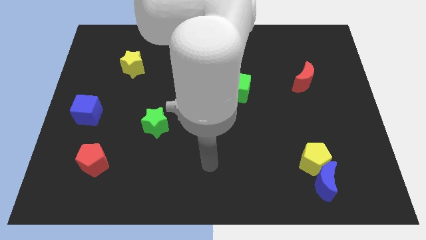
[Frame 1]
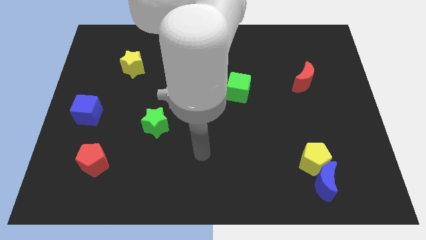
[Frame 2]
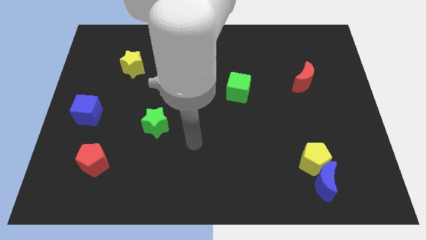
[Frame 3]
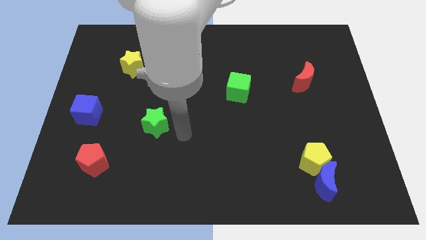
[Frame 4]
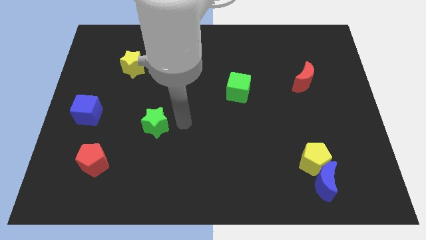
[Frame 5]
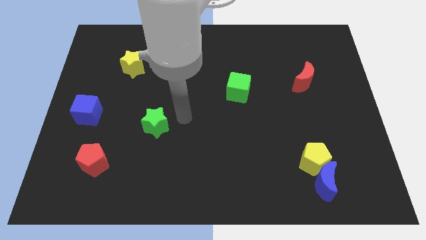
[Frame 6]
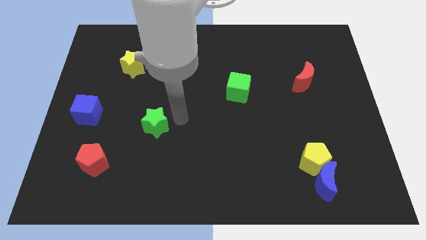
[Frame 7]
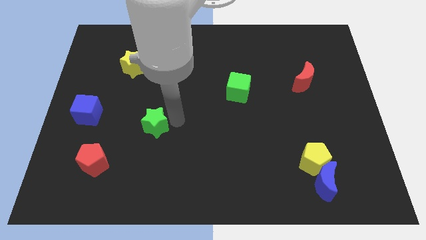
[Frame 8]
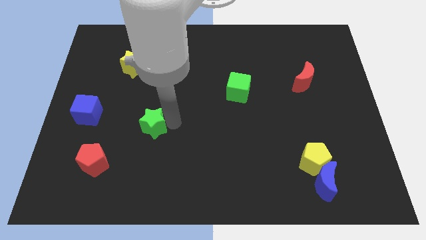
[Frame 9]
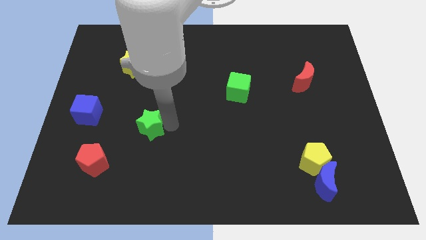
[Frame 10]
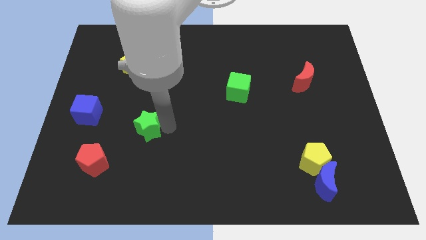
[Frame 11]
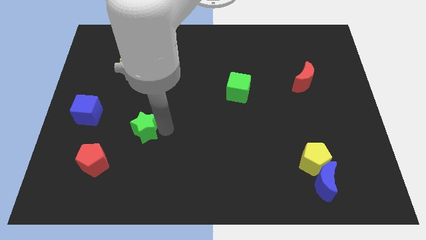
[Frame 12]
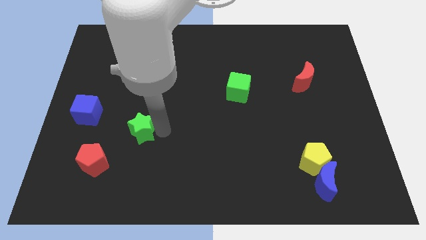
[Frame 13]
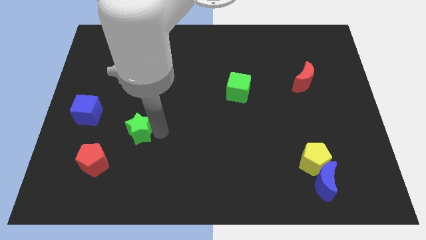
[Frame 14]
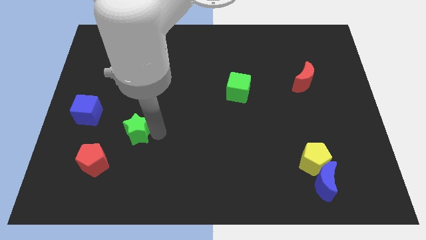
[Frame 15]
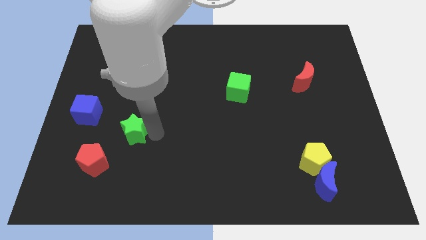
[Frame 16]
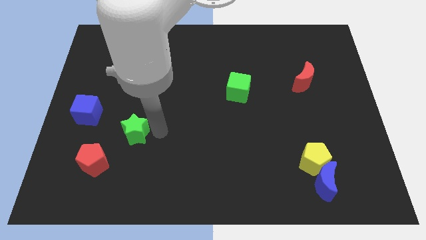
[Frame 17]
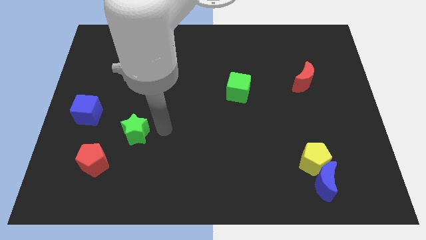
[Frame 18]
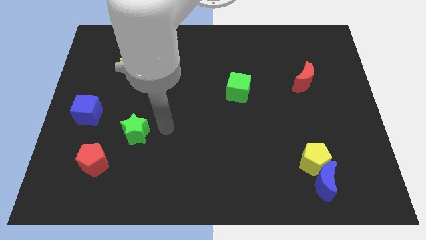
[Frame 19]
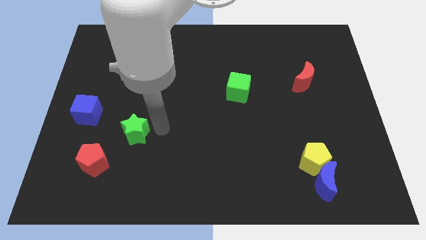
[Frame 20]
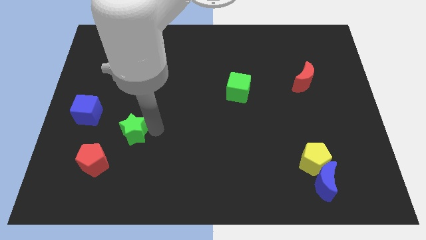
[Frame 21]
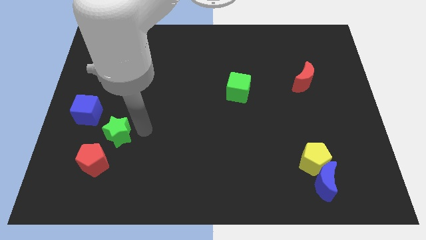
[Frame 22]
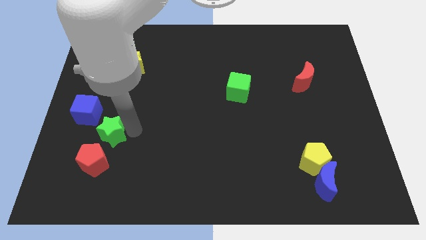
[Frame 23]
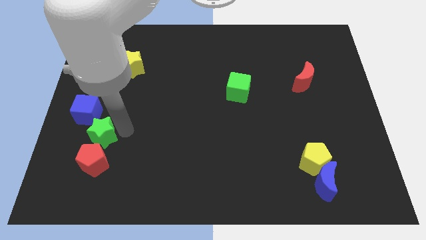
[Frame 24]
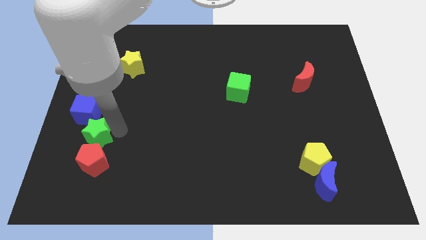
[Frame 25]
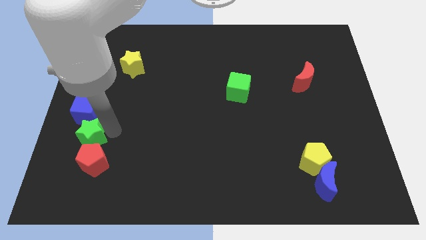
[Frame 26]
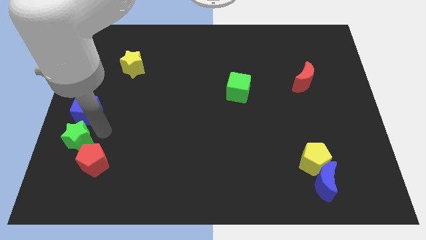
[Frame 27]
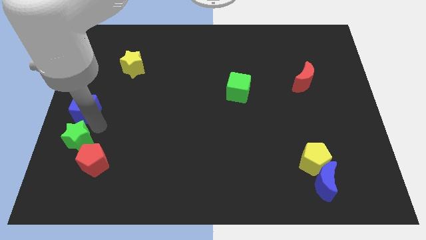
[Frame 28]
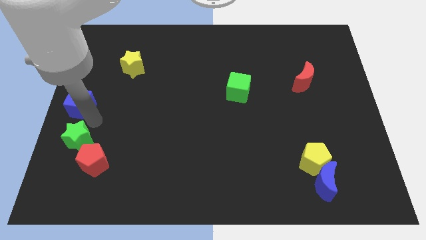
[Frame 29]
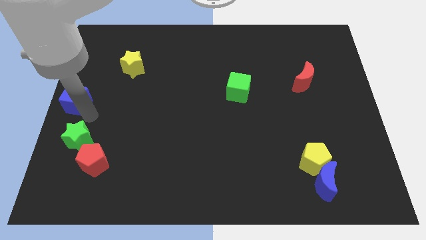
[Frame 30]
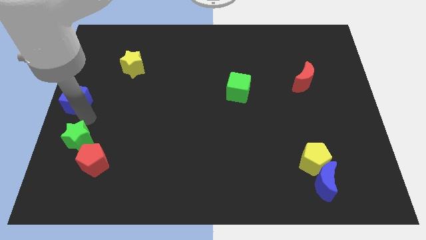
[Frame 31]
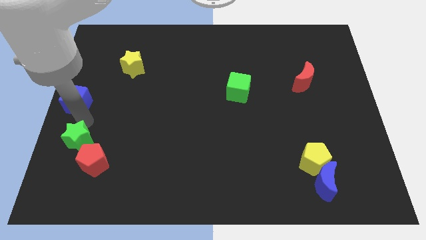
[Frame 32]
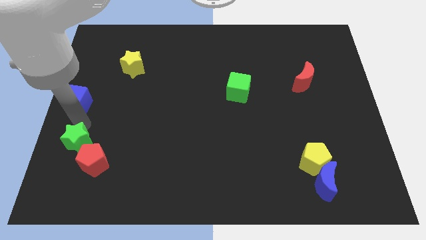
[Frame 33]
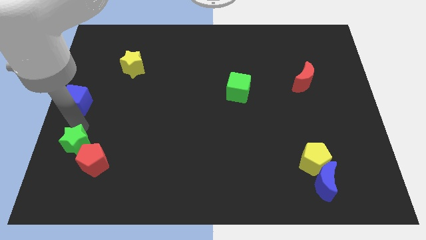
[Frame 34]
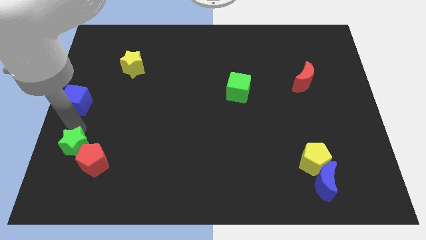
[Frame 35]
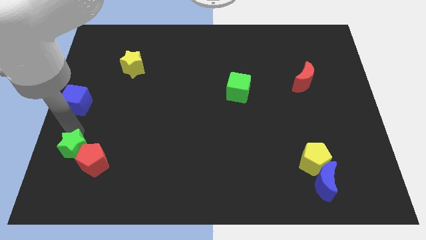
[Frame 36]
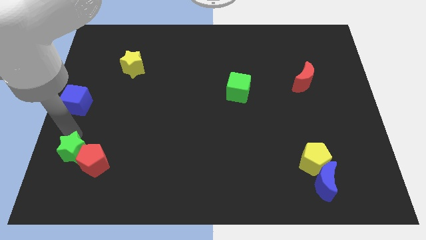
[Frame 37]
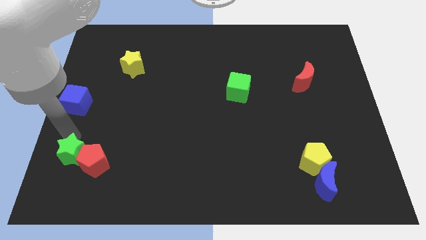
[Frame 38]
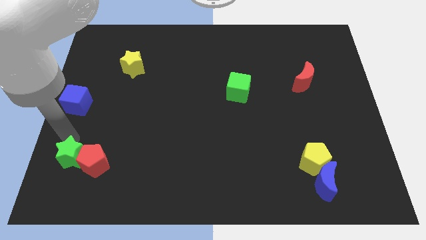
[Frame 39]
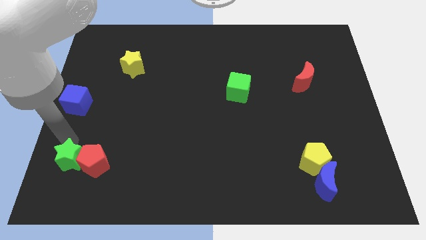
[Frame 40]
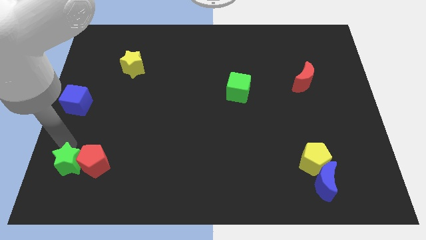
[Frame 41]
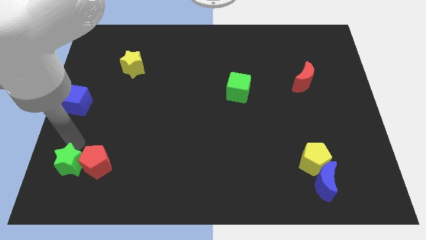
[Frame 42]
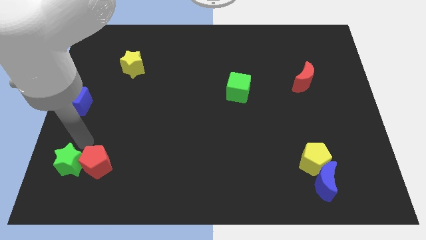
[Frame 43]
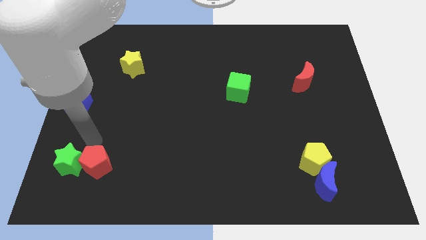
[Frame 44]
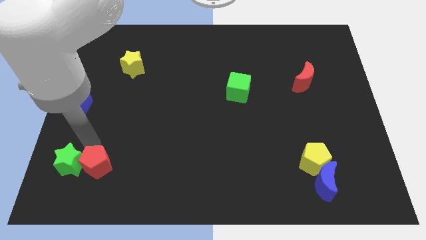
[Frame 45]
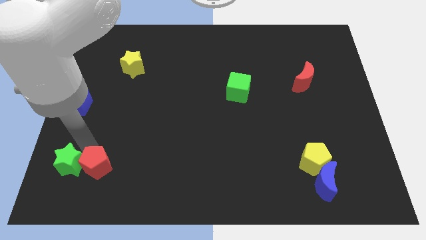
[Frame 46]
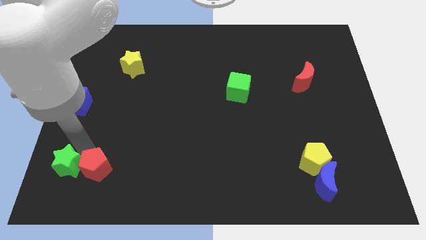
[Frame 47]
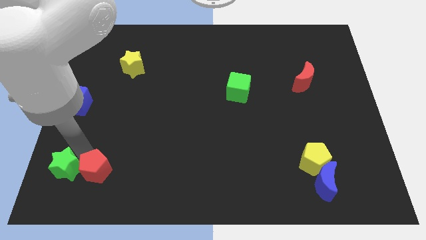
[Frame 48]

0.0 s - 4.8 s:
push the green star to the lower left corner

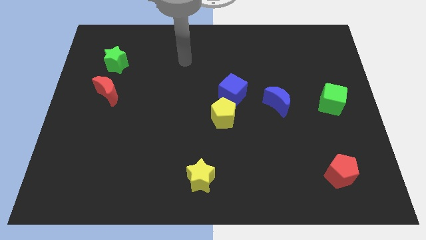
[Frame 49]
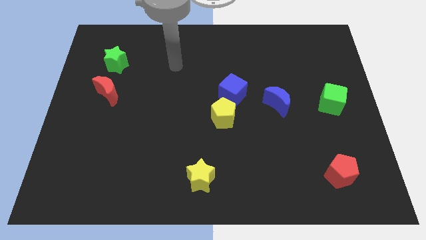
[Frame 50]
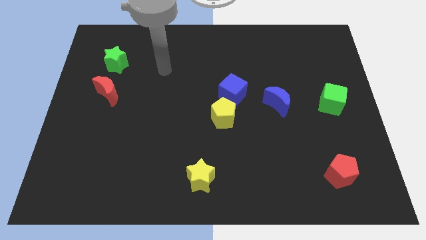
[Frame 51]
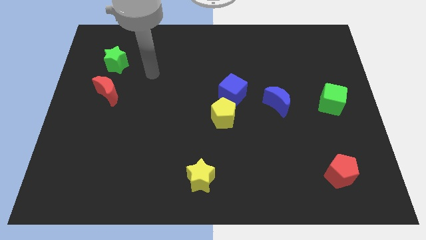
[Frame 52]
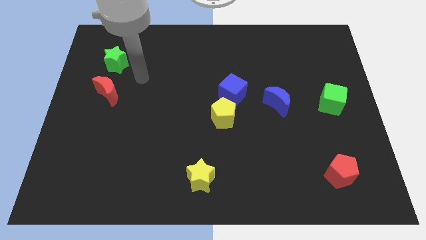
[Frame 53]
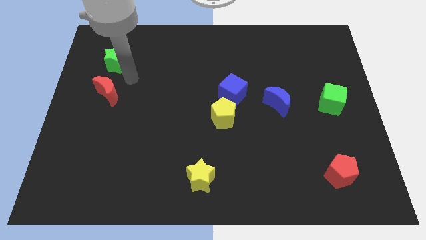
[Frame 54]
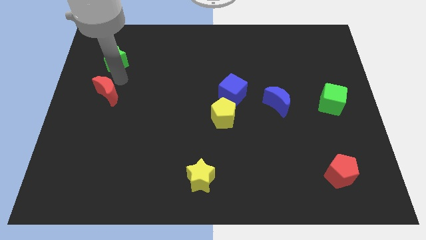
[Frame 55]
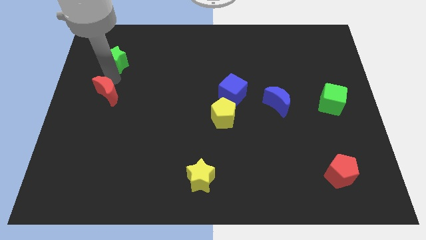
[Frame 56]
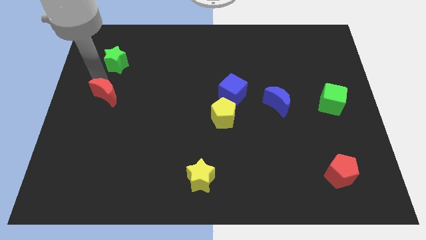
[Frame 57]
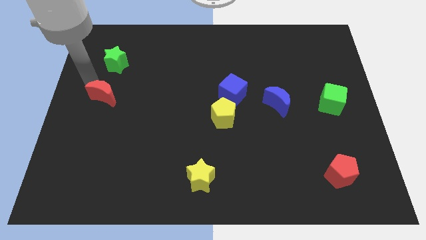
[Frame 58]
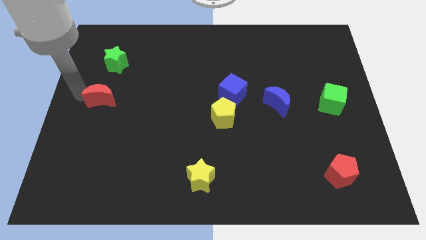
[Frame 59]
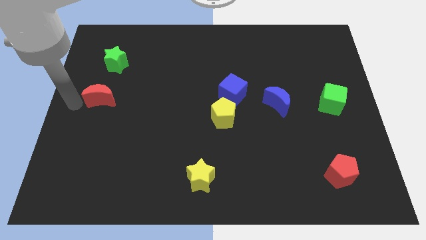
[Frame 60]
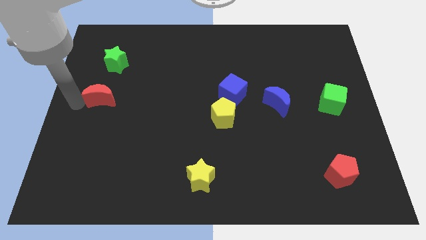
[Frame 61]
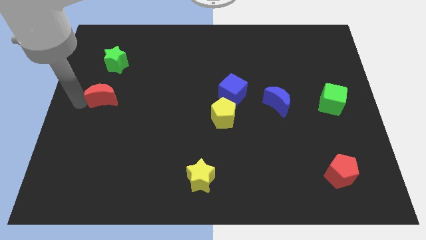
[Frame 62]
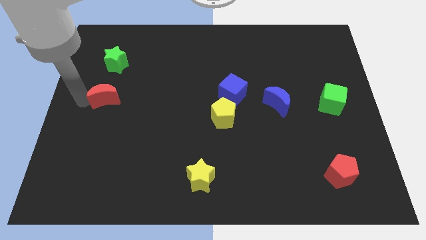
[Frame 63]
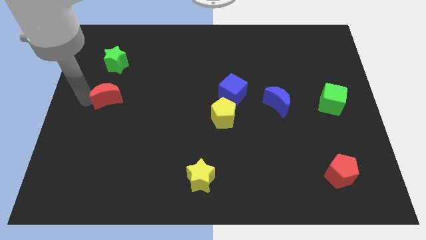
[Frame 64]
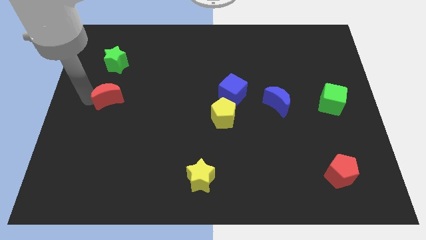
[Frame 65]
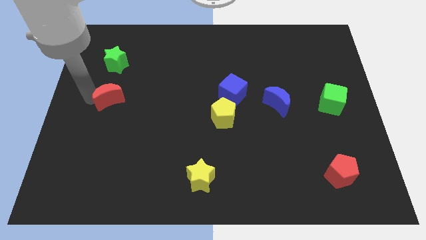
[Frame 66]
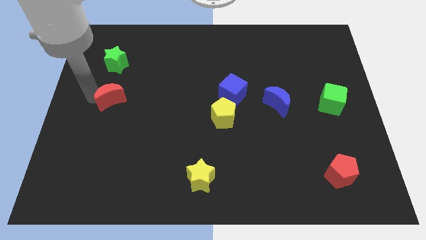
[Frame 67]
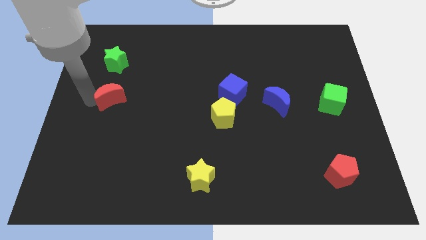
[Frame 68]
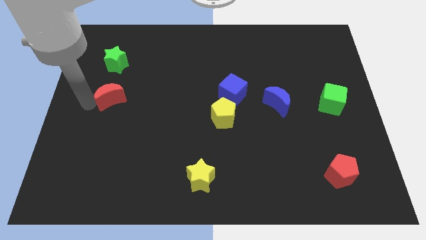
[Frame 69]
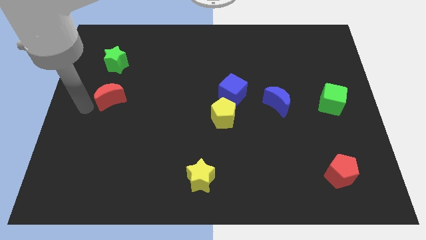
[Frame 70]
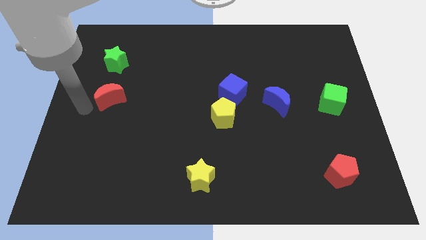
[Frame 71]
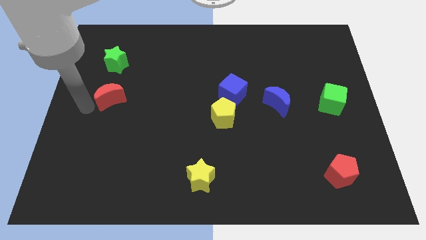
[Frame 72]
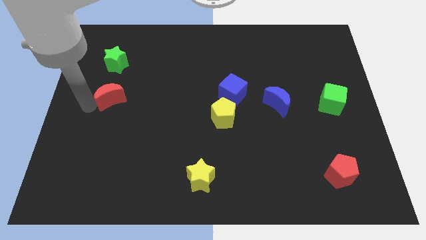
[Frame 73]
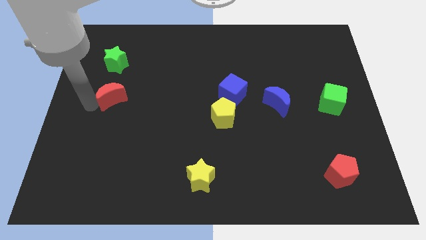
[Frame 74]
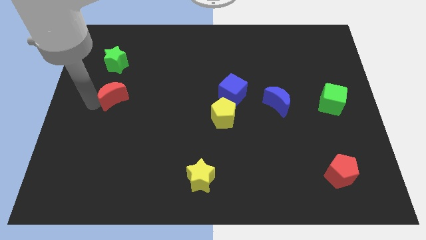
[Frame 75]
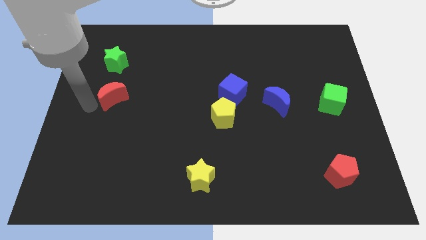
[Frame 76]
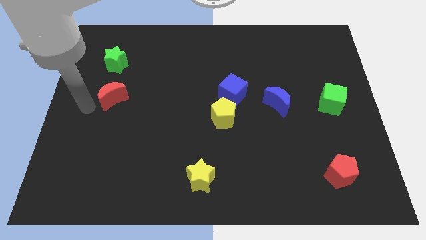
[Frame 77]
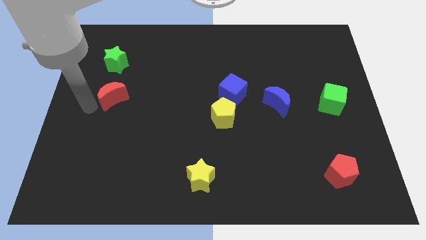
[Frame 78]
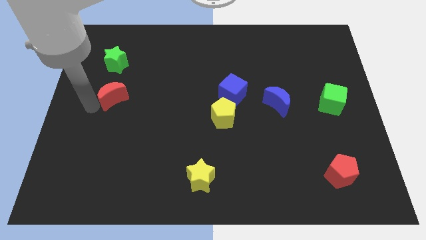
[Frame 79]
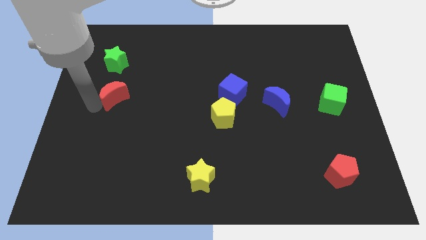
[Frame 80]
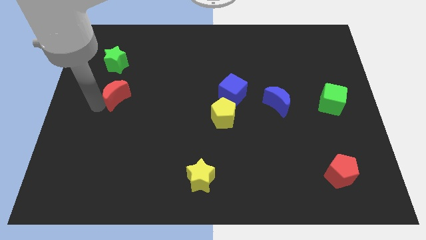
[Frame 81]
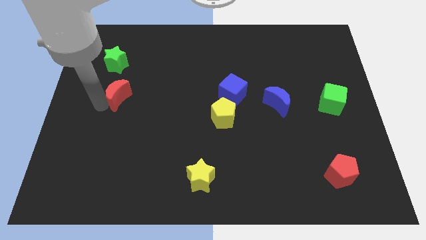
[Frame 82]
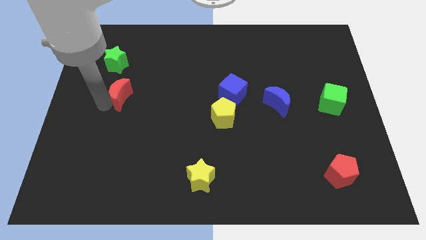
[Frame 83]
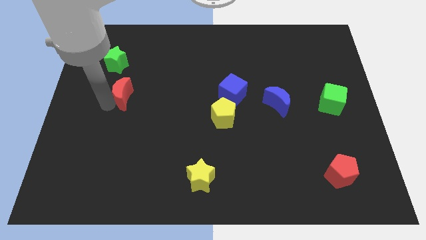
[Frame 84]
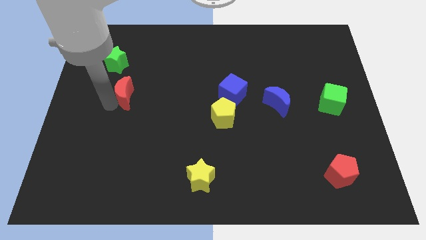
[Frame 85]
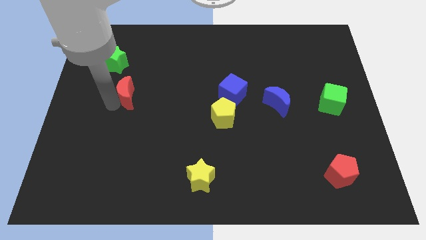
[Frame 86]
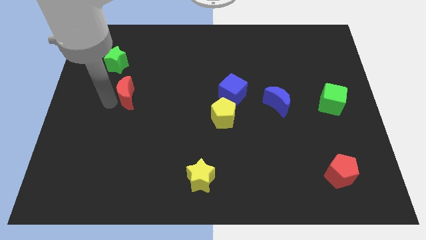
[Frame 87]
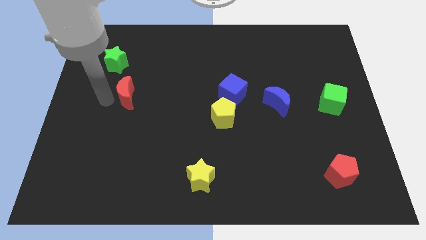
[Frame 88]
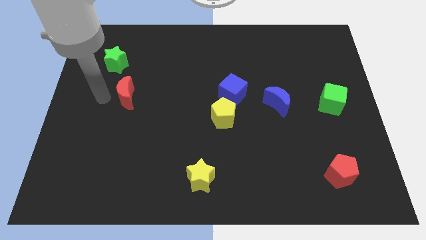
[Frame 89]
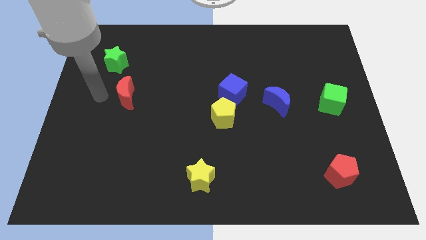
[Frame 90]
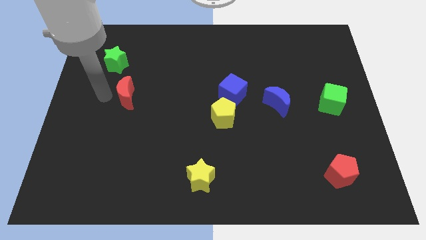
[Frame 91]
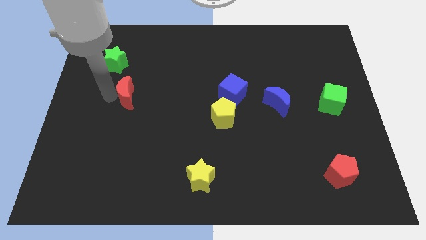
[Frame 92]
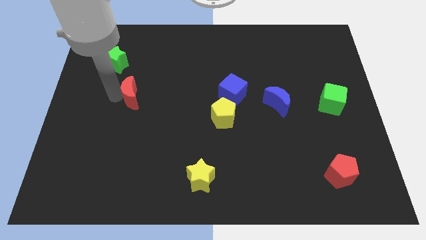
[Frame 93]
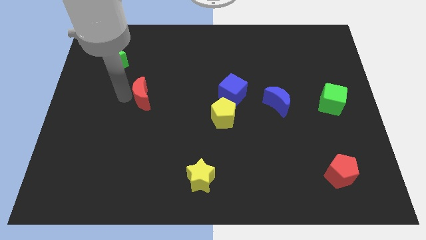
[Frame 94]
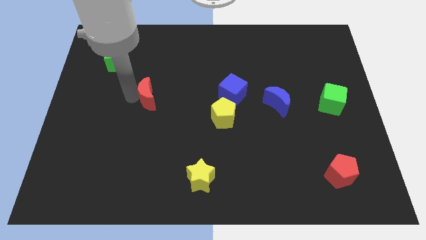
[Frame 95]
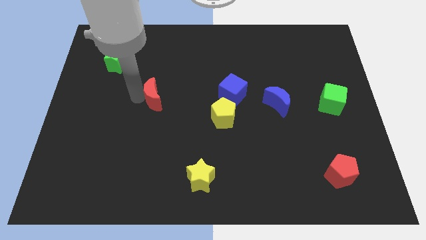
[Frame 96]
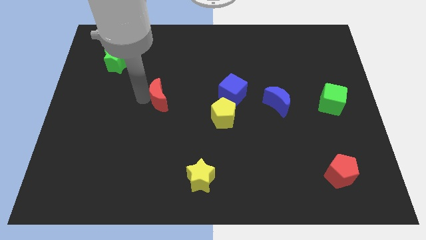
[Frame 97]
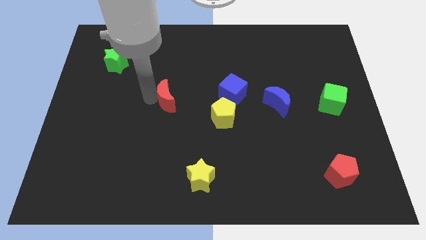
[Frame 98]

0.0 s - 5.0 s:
push the red moon to the center of the board
